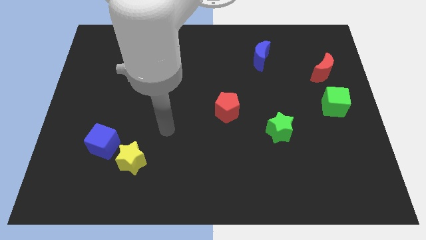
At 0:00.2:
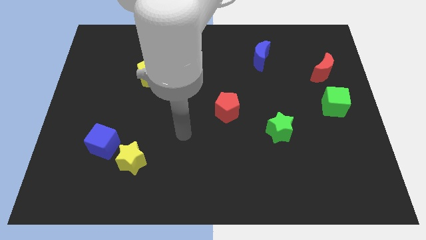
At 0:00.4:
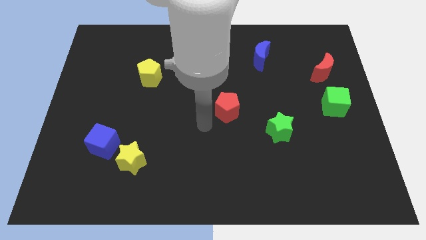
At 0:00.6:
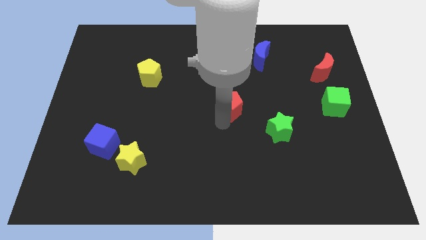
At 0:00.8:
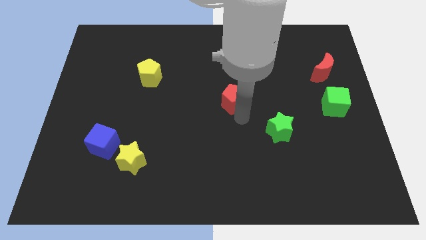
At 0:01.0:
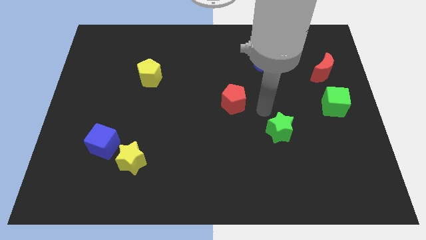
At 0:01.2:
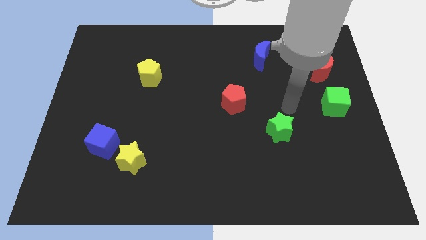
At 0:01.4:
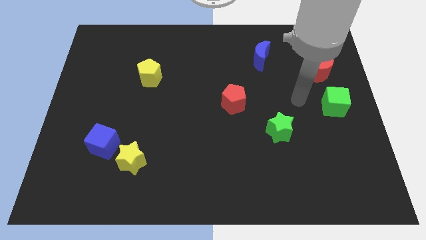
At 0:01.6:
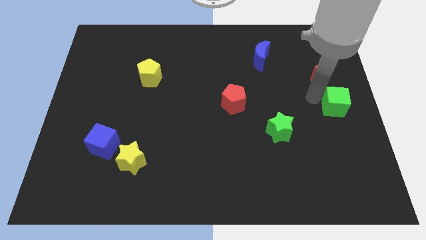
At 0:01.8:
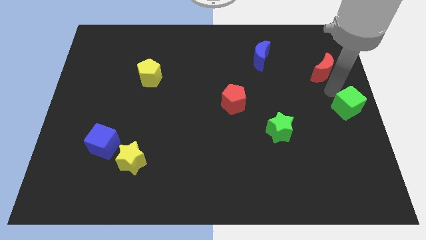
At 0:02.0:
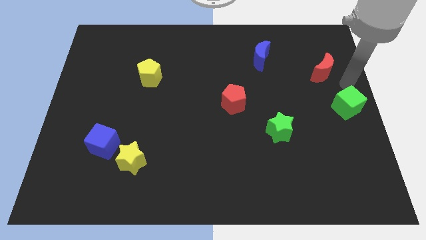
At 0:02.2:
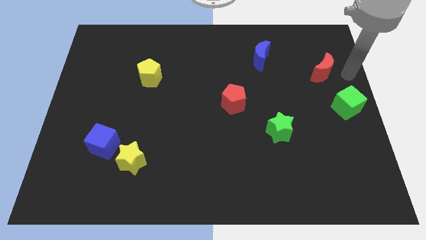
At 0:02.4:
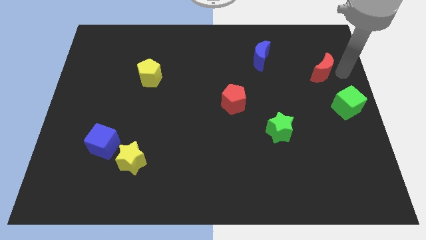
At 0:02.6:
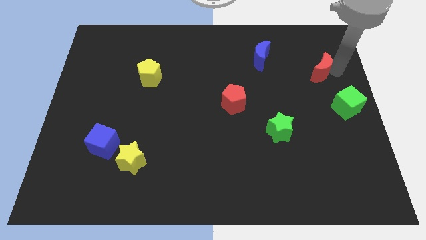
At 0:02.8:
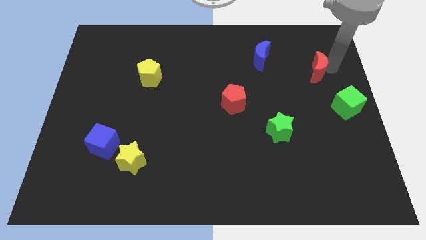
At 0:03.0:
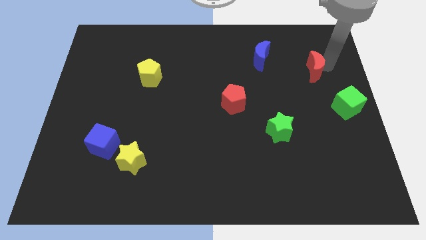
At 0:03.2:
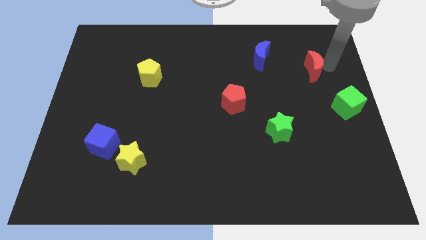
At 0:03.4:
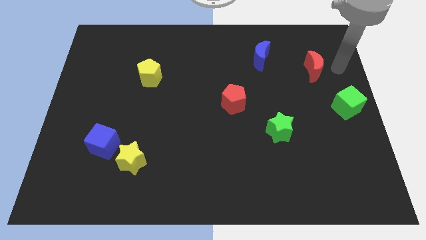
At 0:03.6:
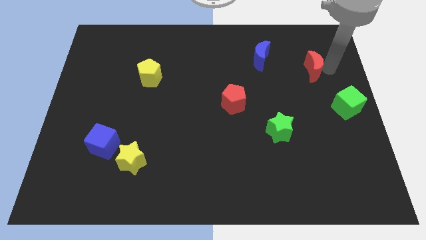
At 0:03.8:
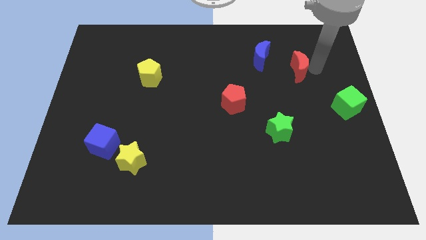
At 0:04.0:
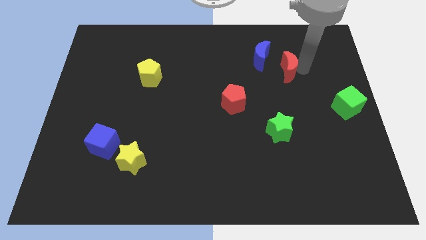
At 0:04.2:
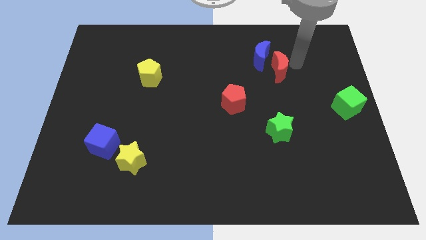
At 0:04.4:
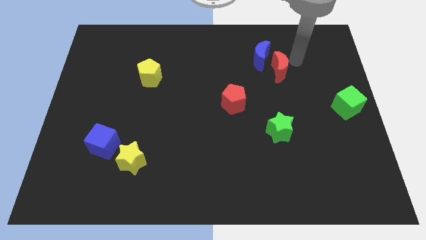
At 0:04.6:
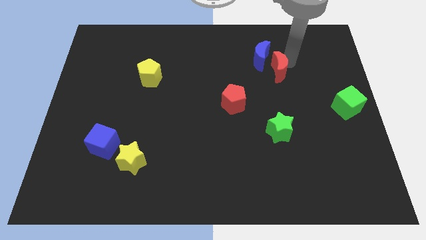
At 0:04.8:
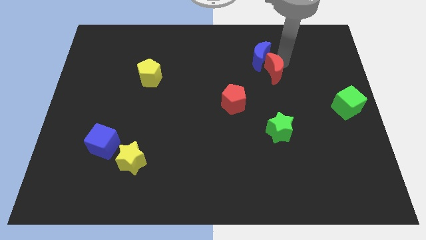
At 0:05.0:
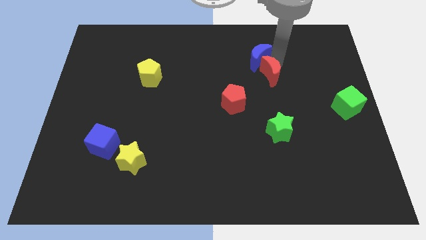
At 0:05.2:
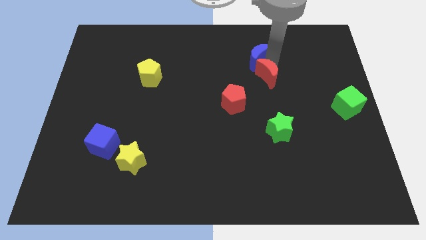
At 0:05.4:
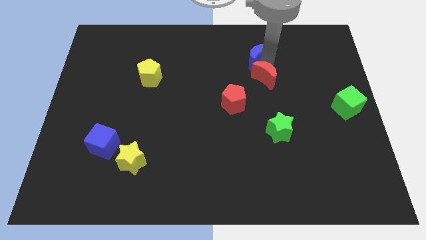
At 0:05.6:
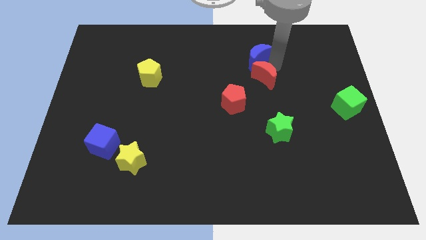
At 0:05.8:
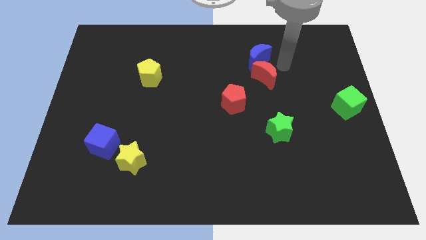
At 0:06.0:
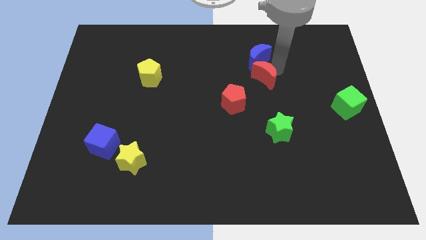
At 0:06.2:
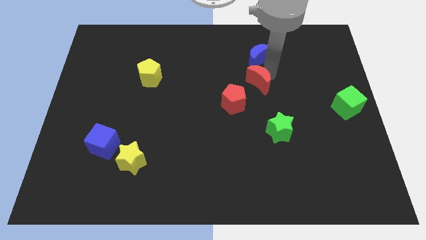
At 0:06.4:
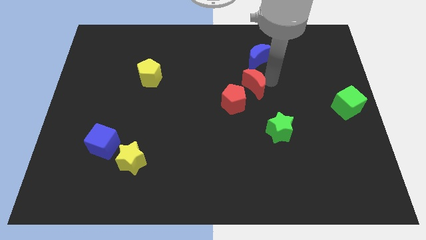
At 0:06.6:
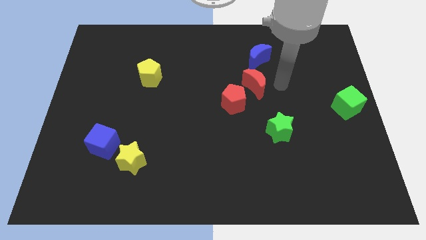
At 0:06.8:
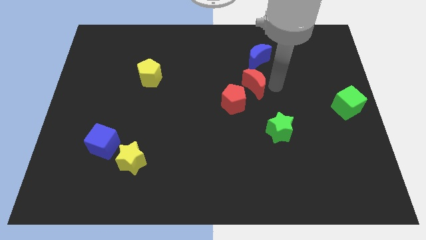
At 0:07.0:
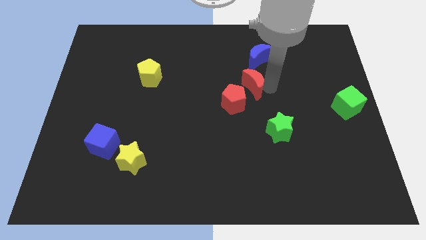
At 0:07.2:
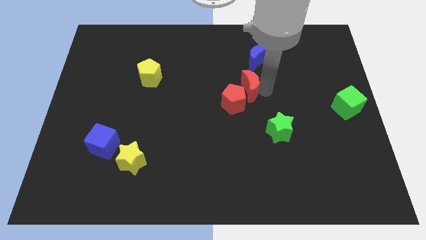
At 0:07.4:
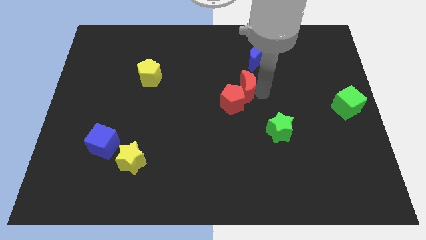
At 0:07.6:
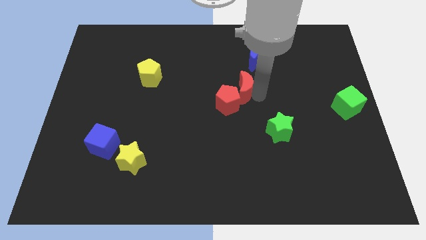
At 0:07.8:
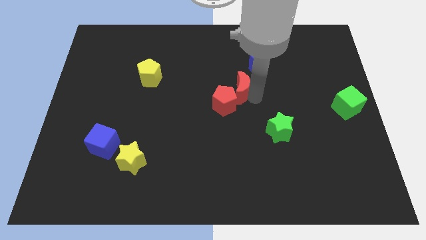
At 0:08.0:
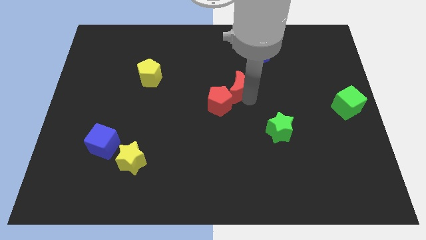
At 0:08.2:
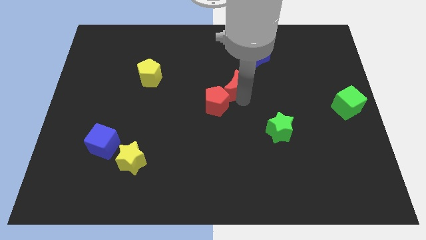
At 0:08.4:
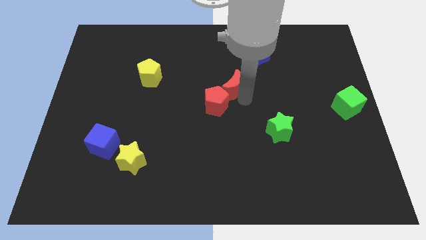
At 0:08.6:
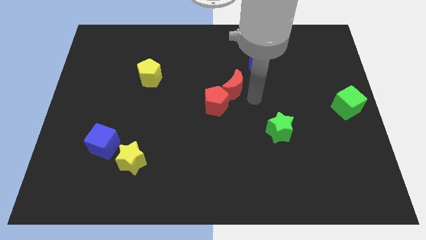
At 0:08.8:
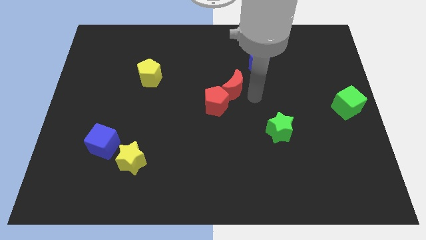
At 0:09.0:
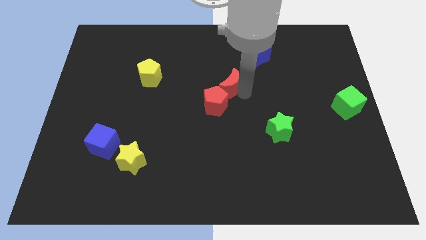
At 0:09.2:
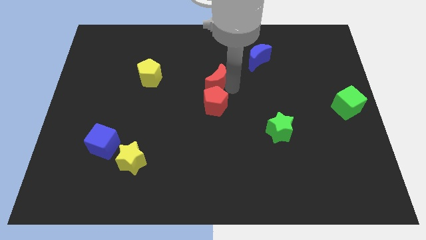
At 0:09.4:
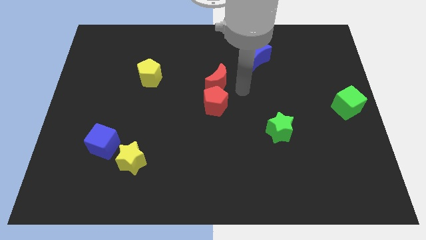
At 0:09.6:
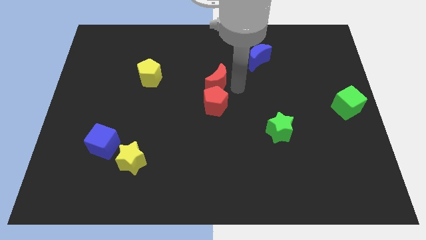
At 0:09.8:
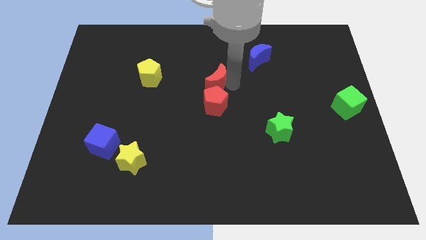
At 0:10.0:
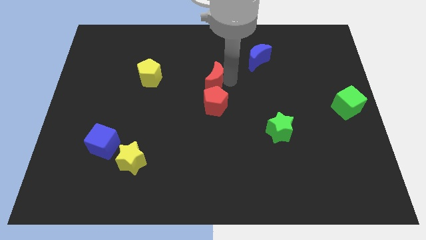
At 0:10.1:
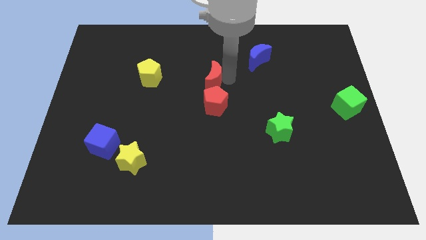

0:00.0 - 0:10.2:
push the red moon to the right of the yellow pentagon

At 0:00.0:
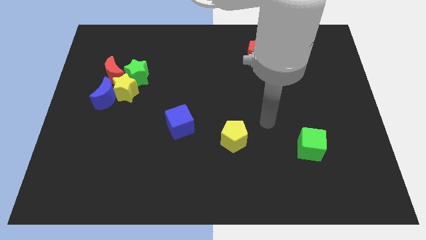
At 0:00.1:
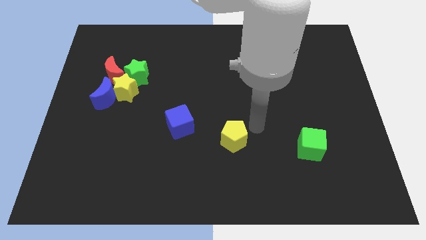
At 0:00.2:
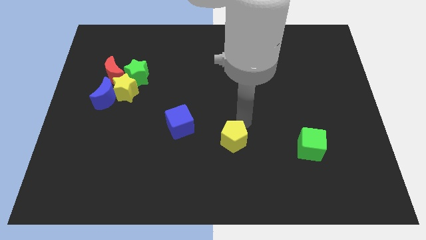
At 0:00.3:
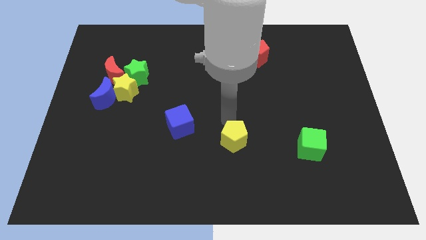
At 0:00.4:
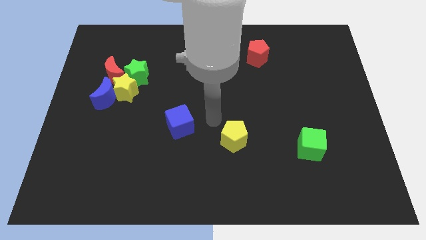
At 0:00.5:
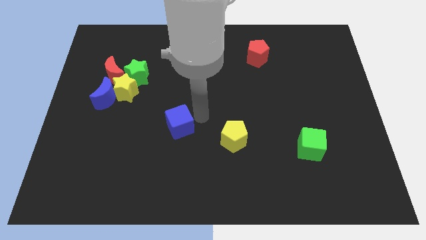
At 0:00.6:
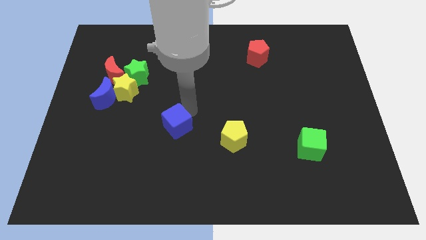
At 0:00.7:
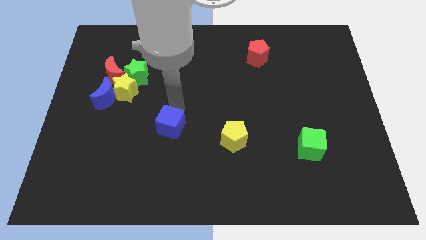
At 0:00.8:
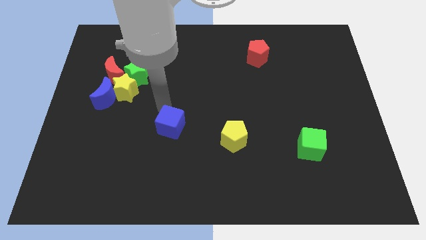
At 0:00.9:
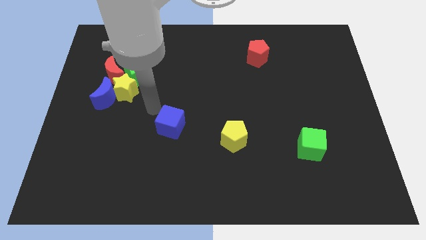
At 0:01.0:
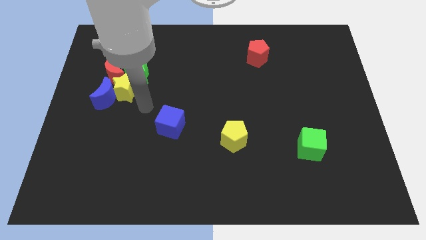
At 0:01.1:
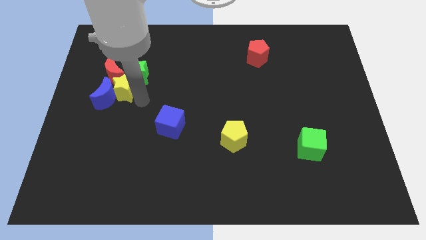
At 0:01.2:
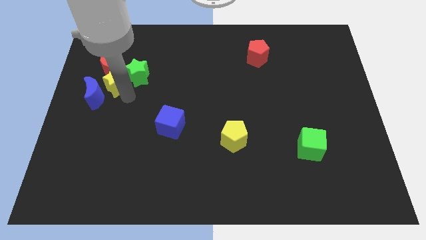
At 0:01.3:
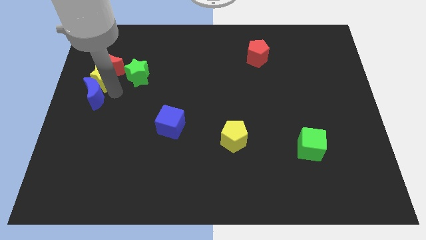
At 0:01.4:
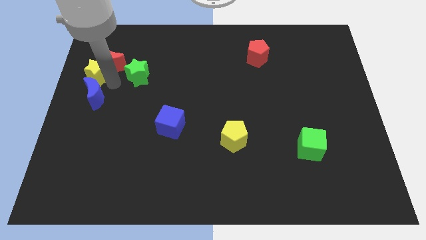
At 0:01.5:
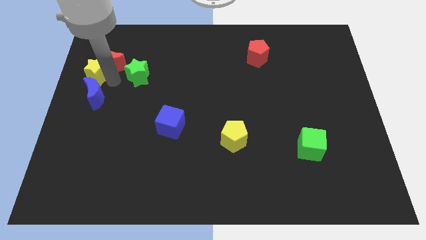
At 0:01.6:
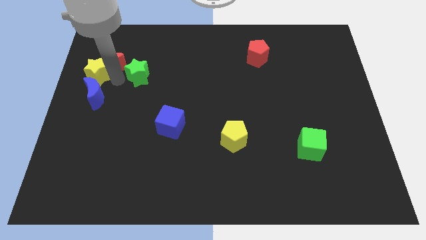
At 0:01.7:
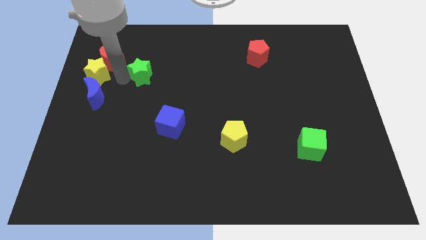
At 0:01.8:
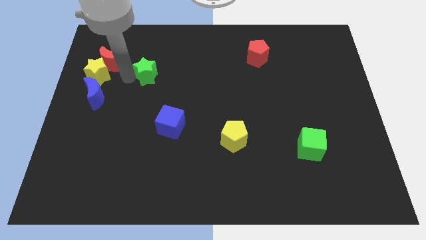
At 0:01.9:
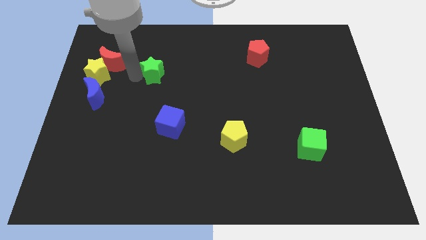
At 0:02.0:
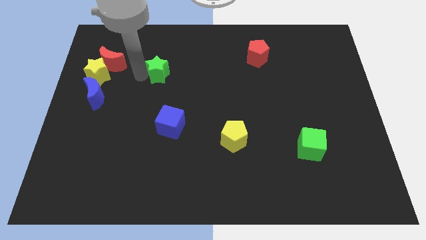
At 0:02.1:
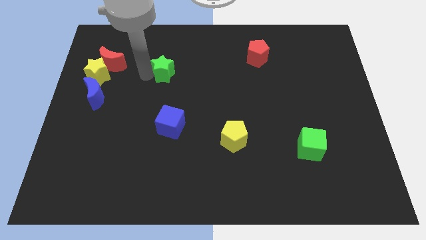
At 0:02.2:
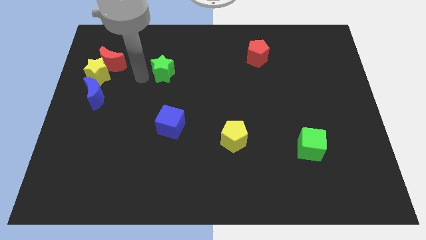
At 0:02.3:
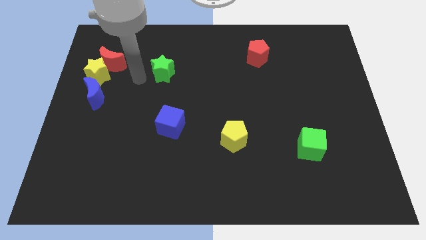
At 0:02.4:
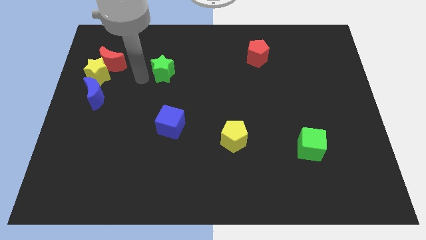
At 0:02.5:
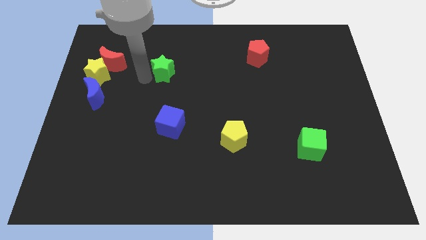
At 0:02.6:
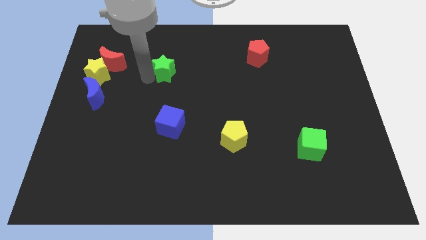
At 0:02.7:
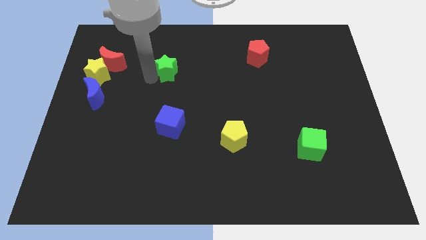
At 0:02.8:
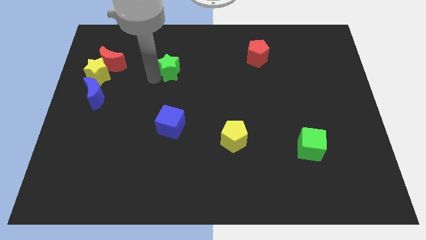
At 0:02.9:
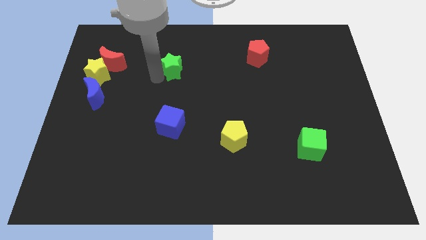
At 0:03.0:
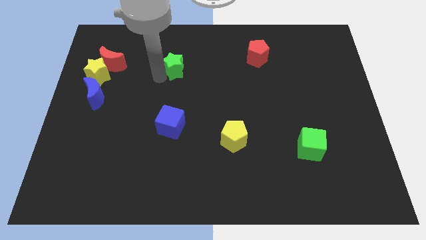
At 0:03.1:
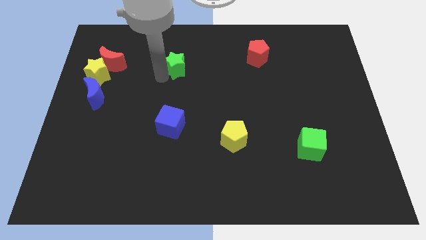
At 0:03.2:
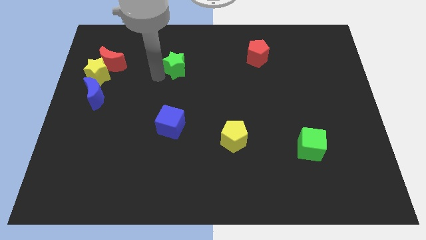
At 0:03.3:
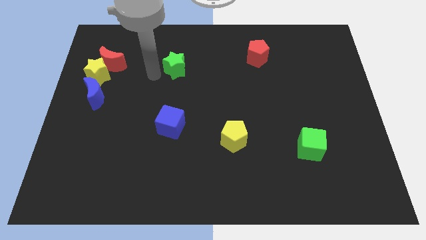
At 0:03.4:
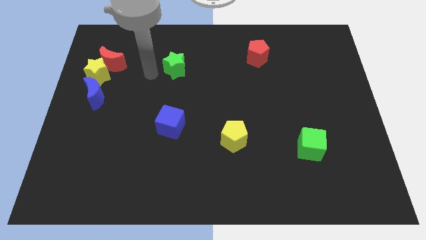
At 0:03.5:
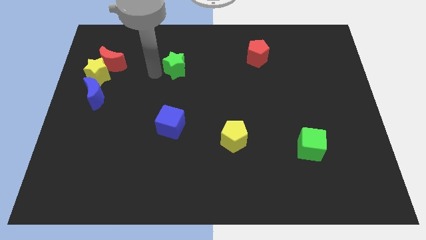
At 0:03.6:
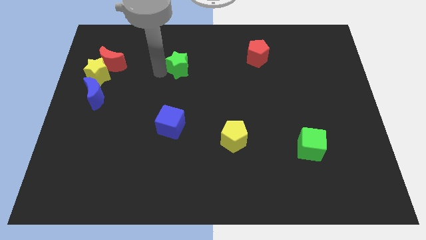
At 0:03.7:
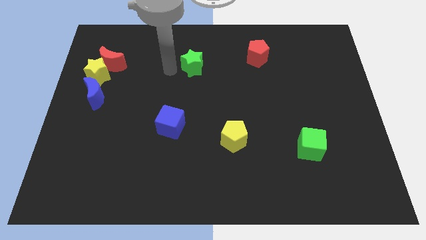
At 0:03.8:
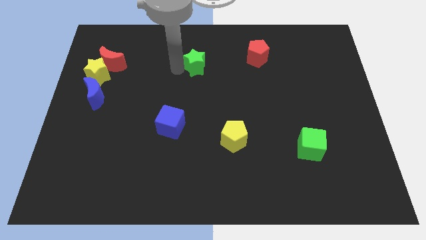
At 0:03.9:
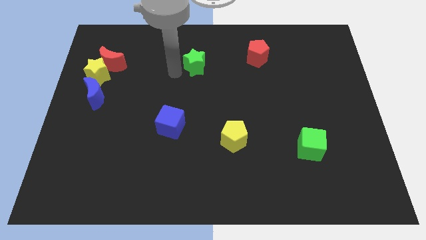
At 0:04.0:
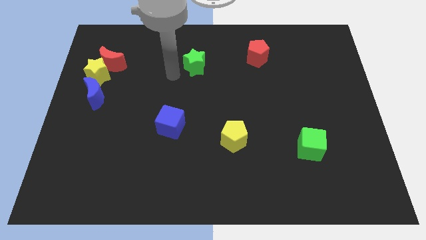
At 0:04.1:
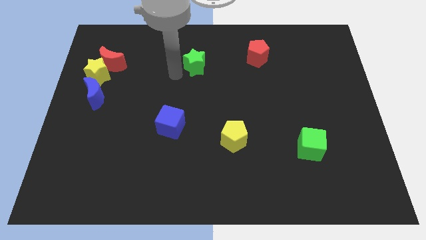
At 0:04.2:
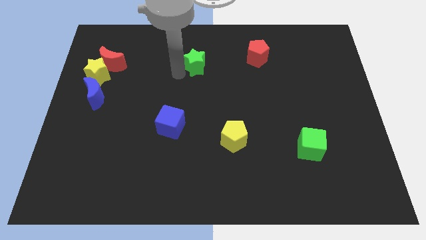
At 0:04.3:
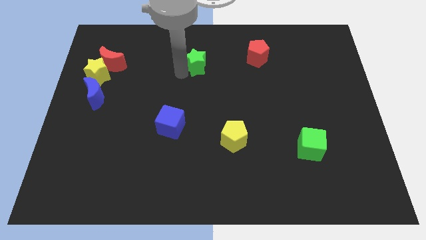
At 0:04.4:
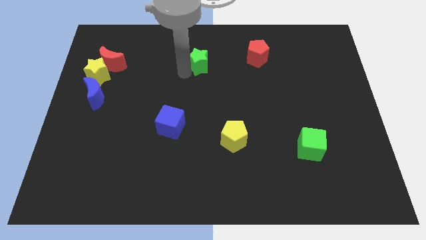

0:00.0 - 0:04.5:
slide the green star left of the red pentagon
